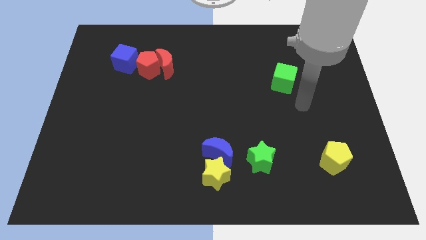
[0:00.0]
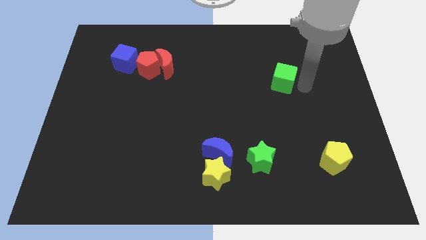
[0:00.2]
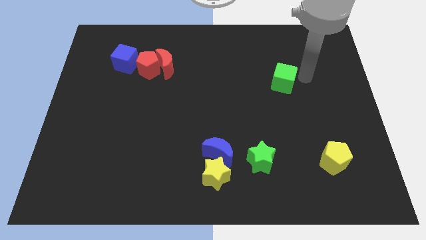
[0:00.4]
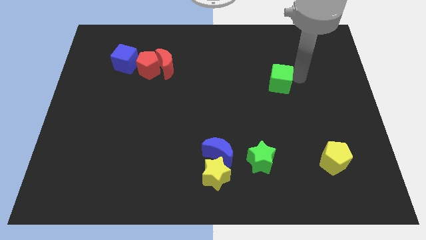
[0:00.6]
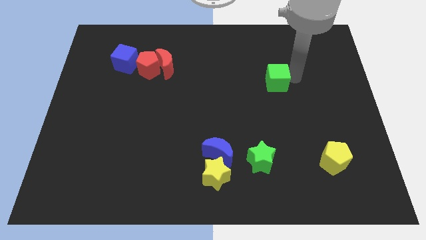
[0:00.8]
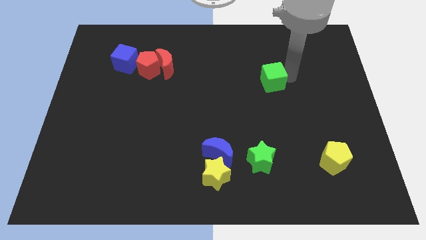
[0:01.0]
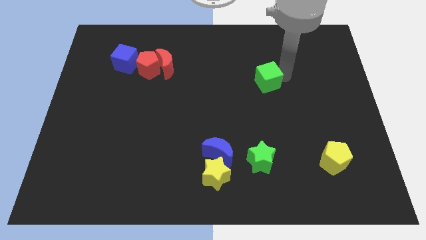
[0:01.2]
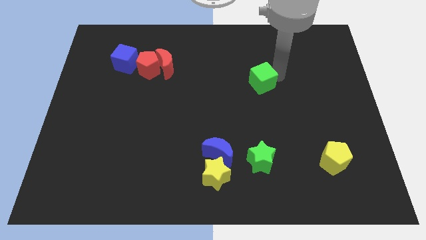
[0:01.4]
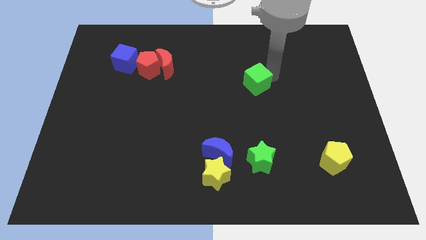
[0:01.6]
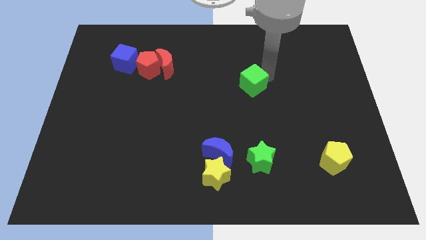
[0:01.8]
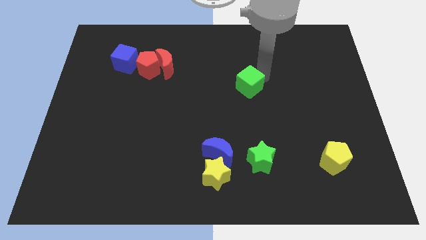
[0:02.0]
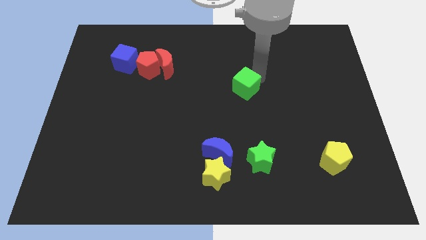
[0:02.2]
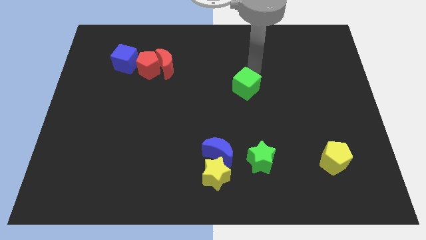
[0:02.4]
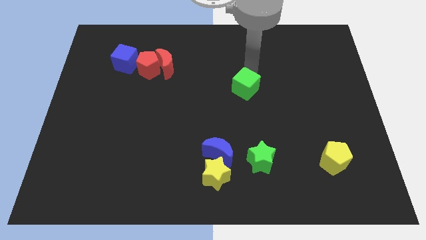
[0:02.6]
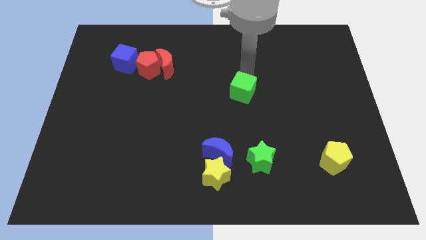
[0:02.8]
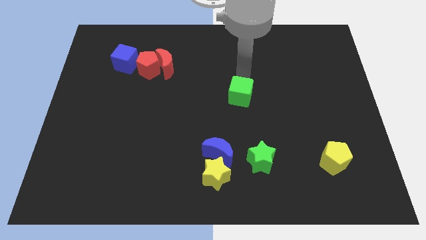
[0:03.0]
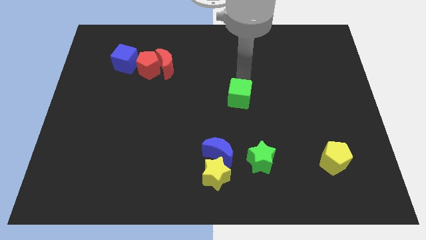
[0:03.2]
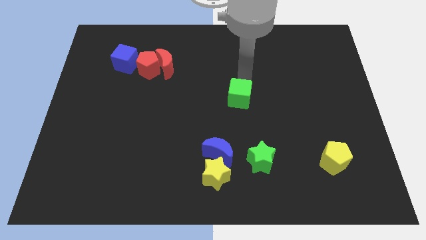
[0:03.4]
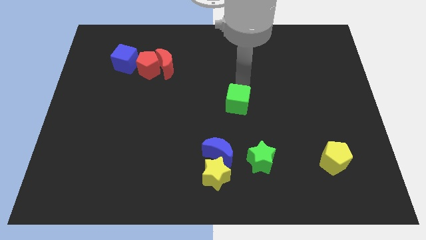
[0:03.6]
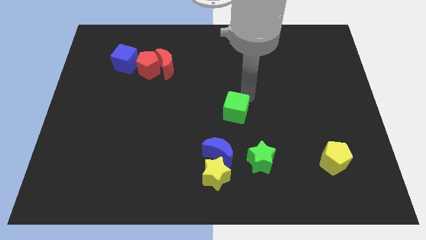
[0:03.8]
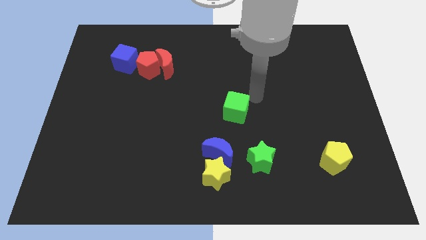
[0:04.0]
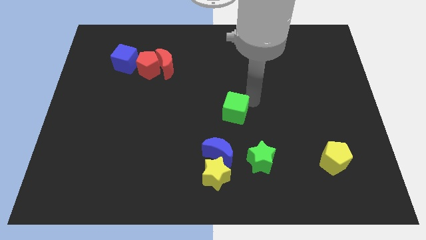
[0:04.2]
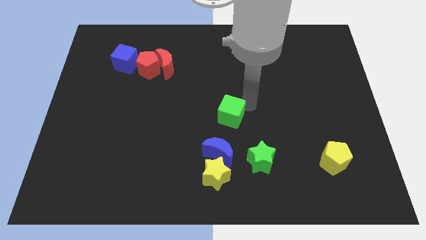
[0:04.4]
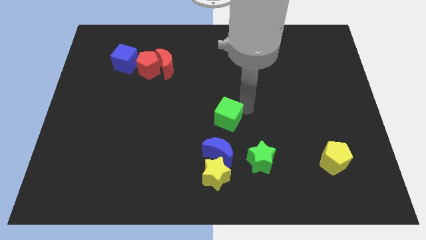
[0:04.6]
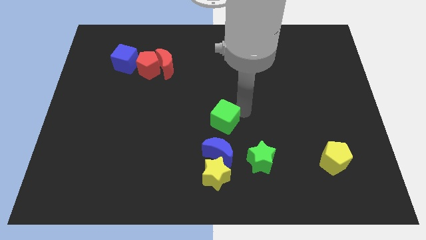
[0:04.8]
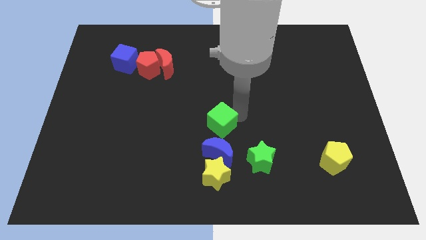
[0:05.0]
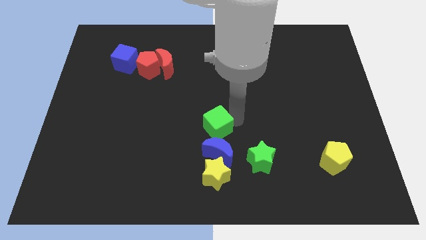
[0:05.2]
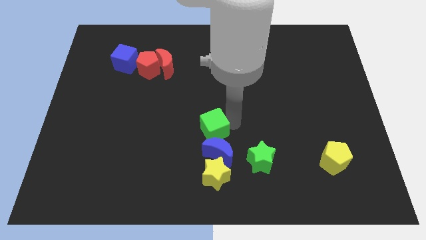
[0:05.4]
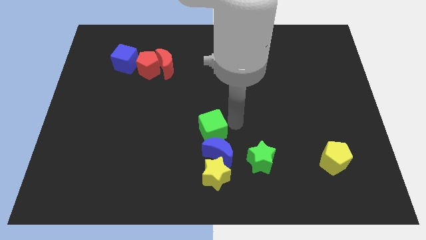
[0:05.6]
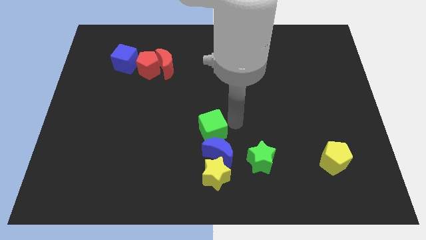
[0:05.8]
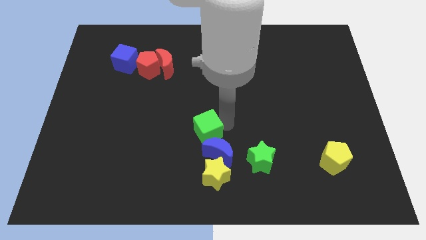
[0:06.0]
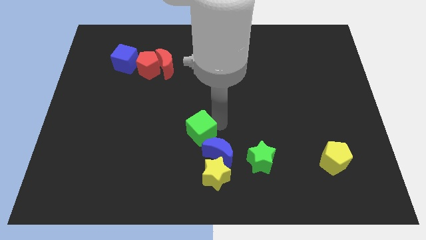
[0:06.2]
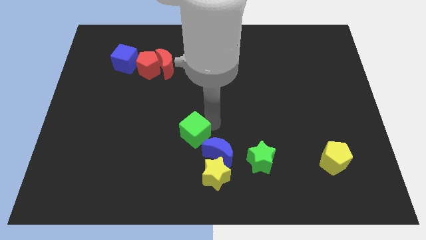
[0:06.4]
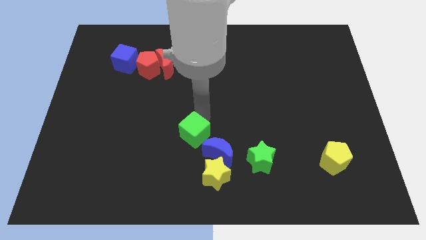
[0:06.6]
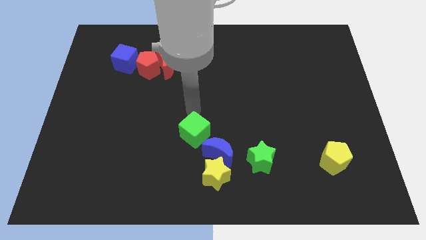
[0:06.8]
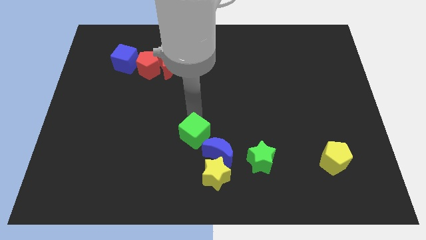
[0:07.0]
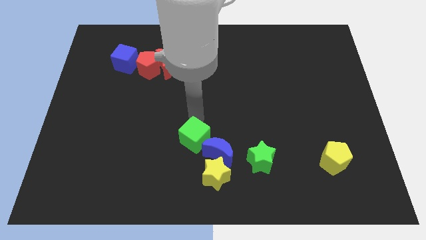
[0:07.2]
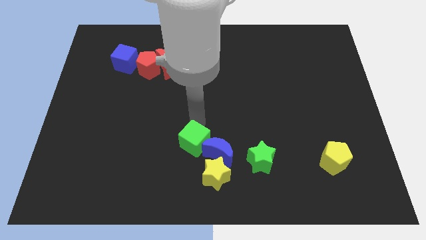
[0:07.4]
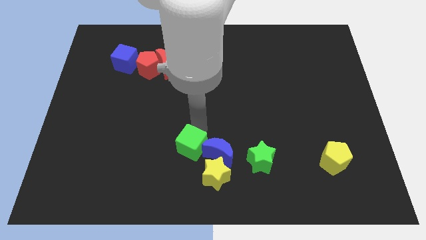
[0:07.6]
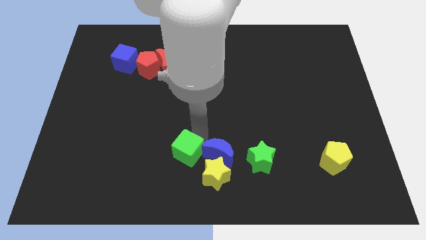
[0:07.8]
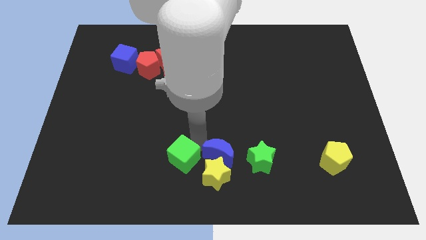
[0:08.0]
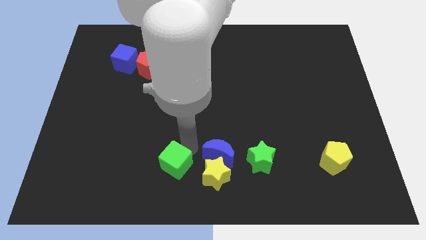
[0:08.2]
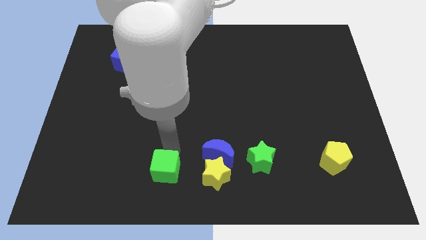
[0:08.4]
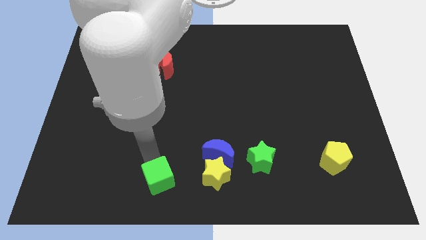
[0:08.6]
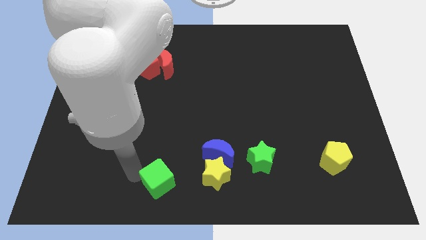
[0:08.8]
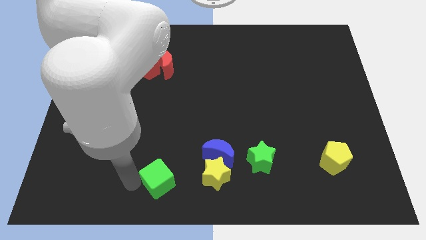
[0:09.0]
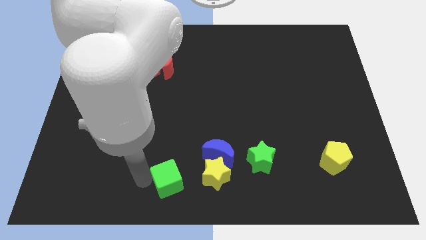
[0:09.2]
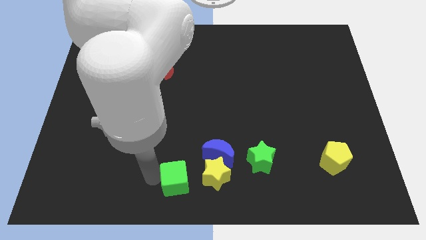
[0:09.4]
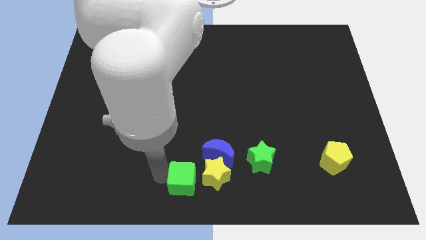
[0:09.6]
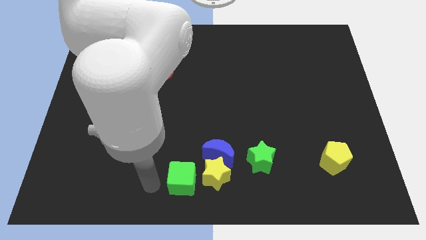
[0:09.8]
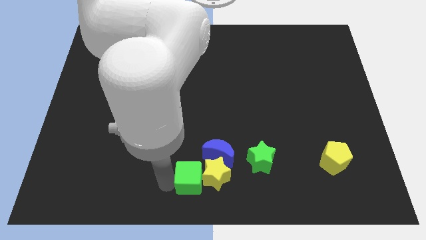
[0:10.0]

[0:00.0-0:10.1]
put the green cube towards the yellow star

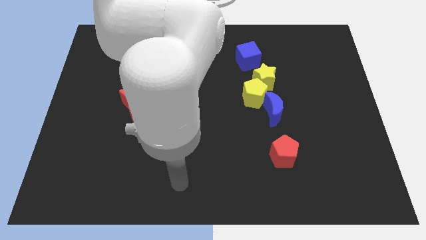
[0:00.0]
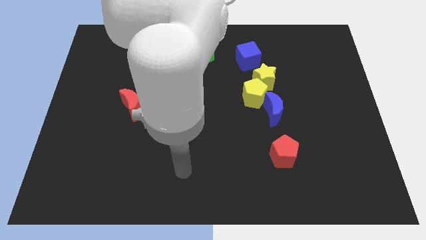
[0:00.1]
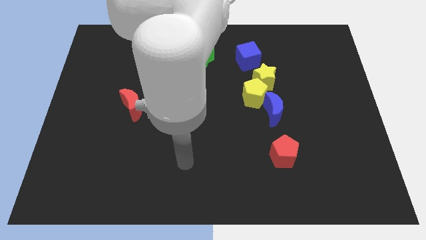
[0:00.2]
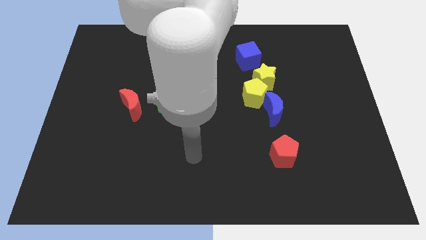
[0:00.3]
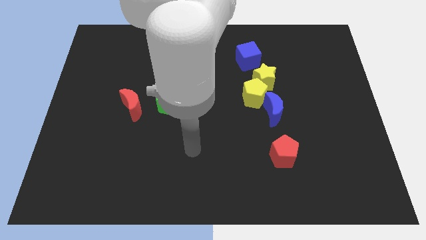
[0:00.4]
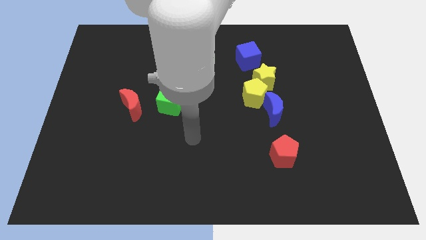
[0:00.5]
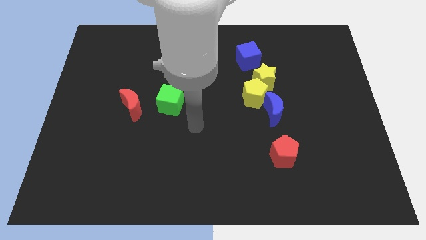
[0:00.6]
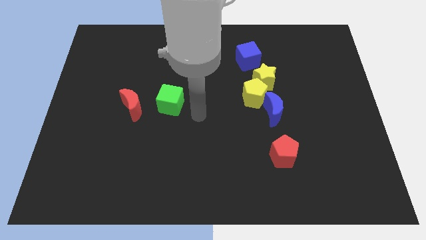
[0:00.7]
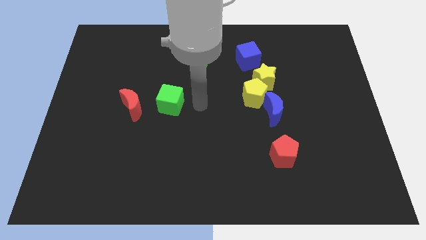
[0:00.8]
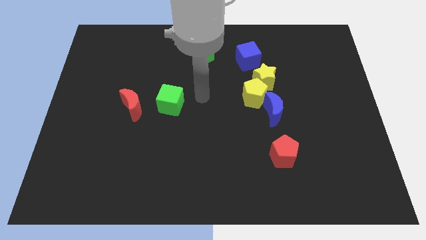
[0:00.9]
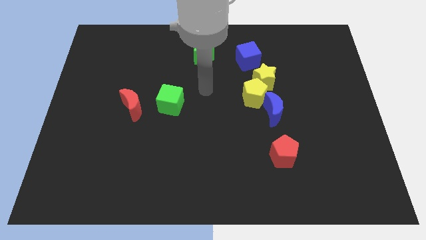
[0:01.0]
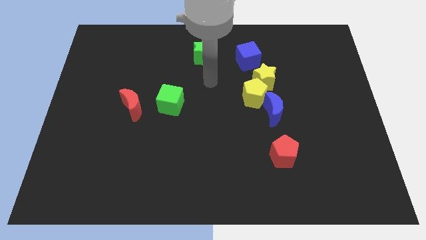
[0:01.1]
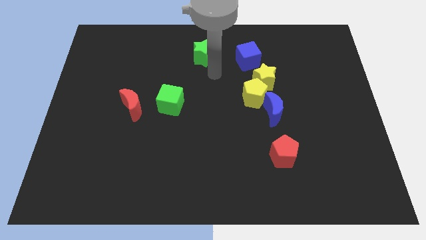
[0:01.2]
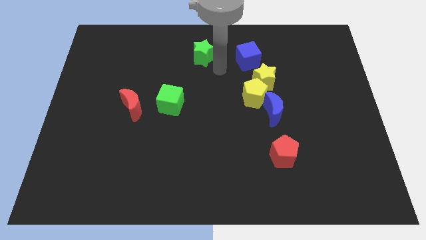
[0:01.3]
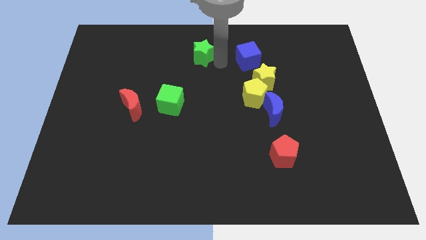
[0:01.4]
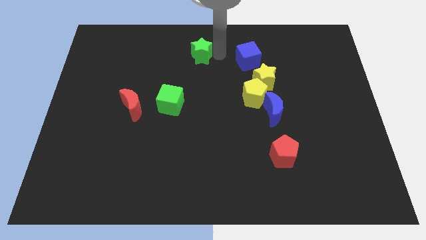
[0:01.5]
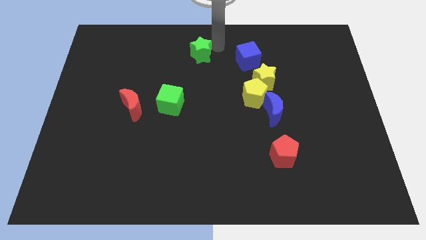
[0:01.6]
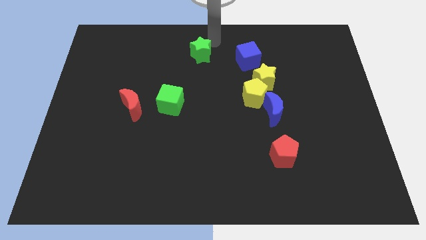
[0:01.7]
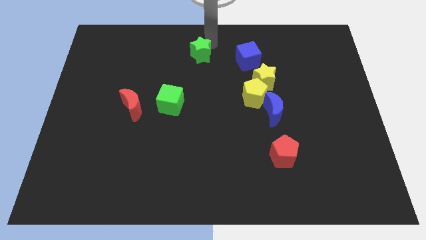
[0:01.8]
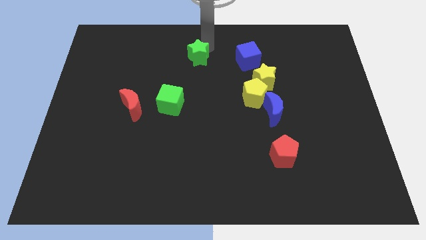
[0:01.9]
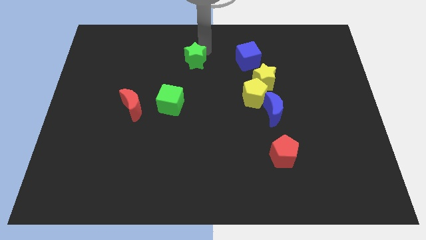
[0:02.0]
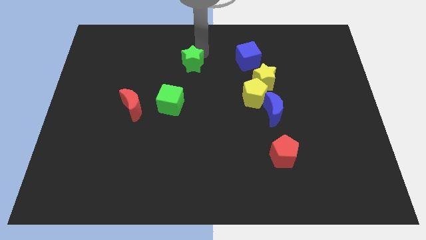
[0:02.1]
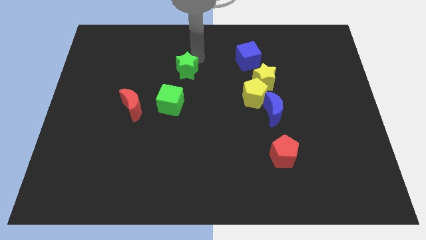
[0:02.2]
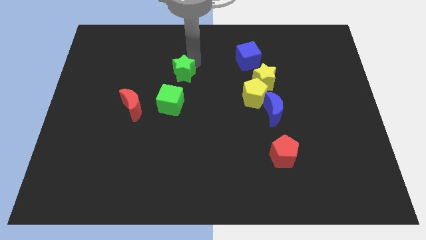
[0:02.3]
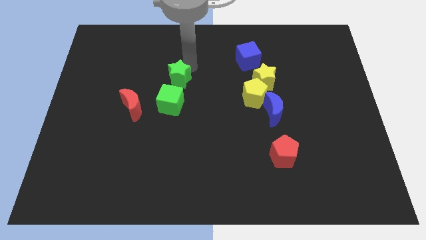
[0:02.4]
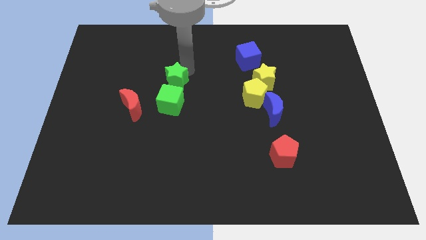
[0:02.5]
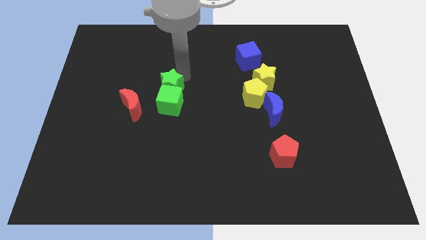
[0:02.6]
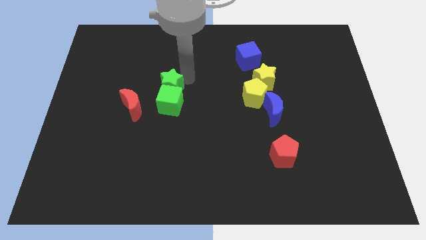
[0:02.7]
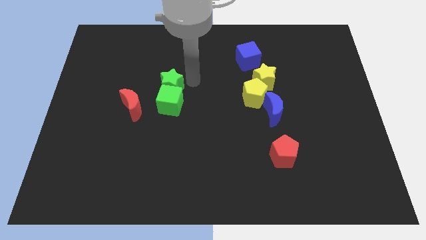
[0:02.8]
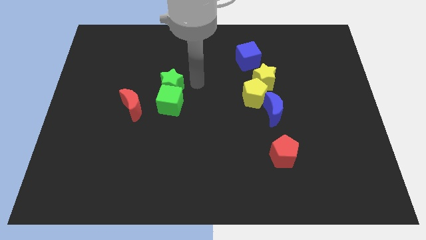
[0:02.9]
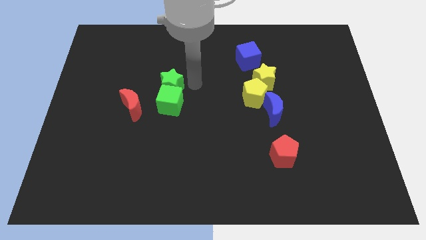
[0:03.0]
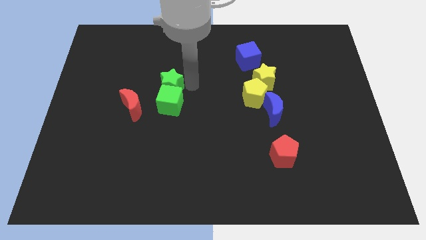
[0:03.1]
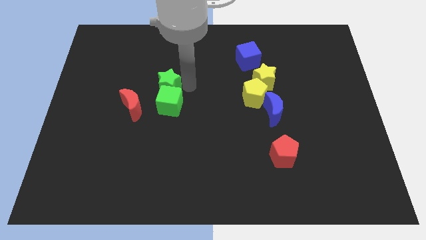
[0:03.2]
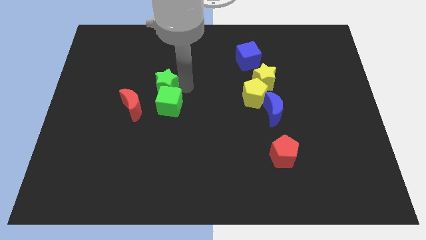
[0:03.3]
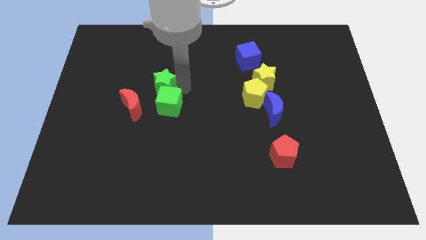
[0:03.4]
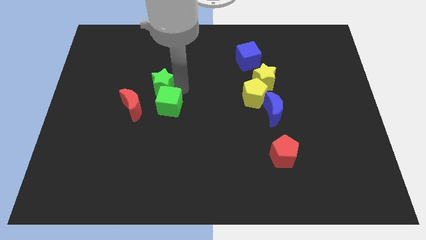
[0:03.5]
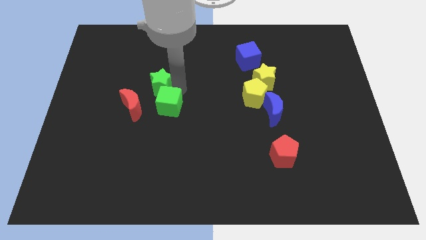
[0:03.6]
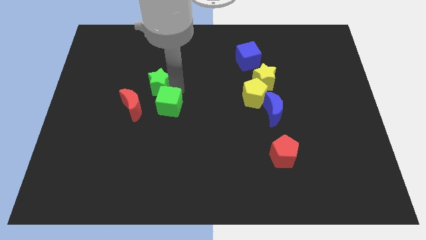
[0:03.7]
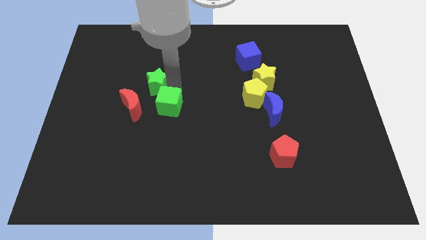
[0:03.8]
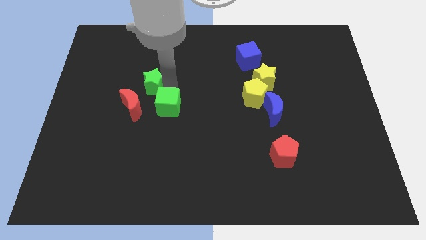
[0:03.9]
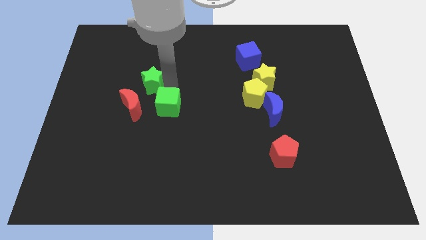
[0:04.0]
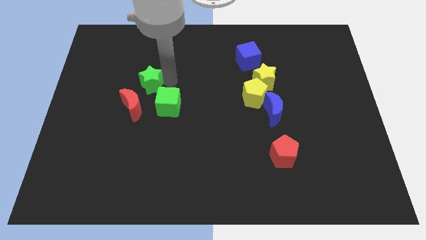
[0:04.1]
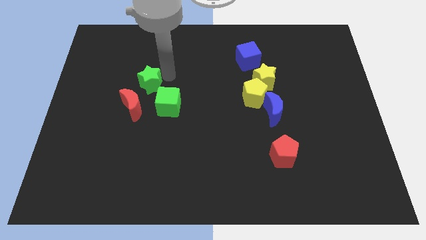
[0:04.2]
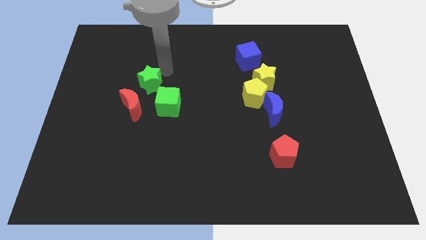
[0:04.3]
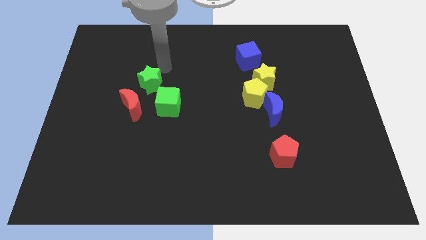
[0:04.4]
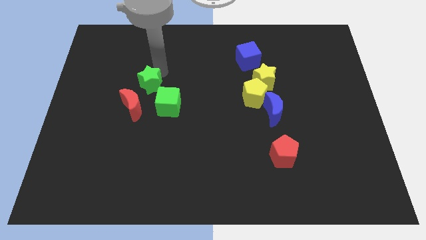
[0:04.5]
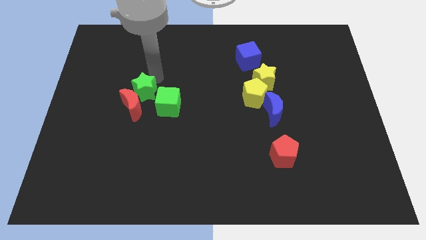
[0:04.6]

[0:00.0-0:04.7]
slide the green star next to the red moon
